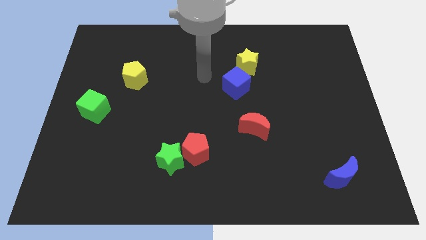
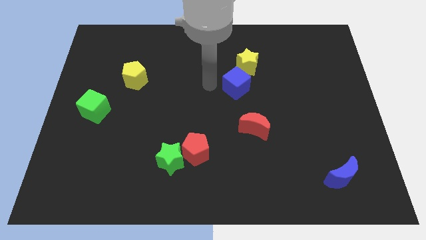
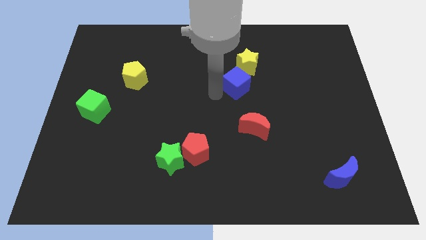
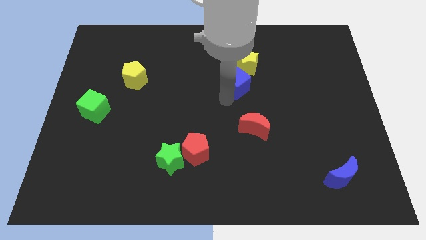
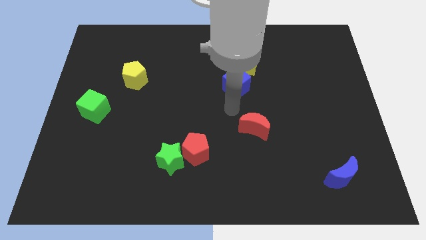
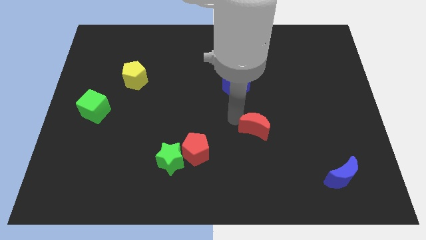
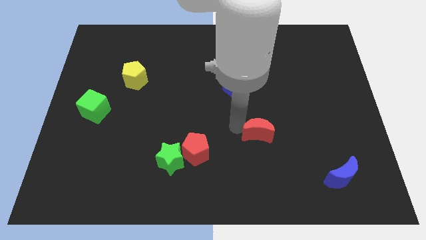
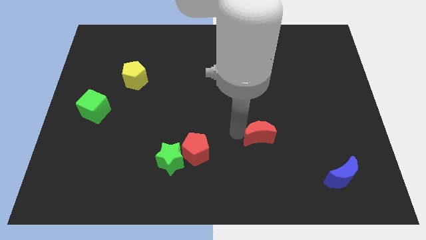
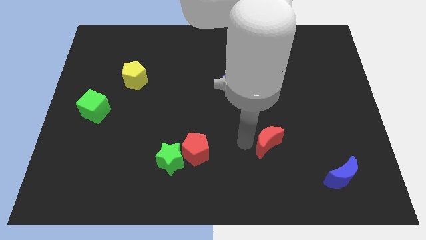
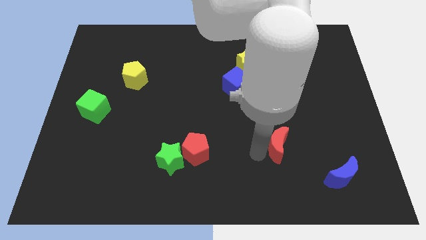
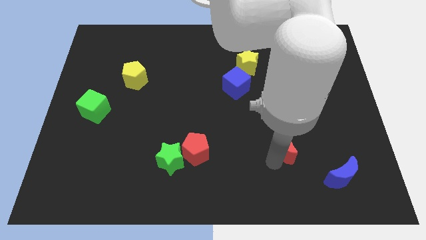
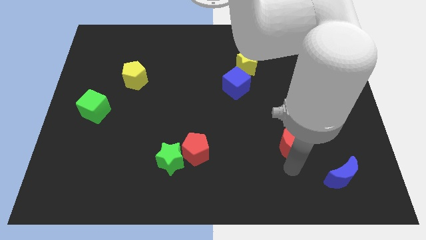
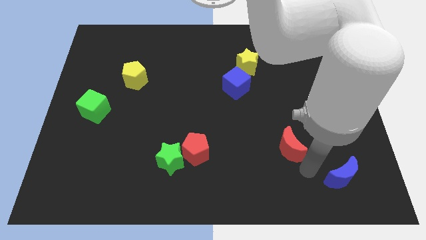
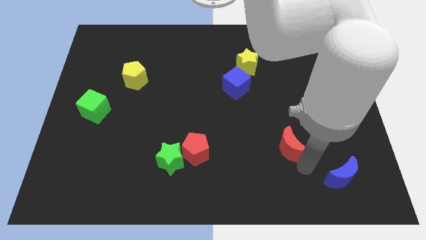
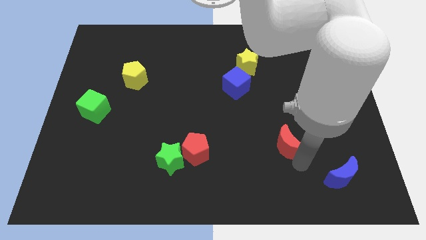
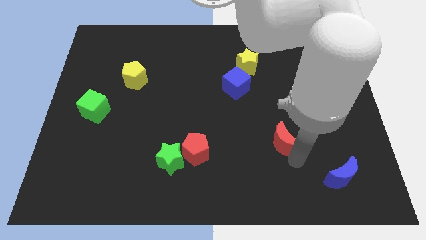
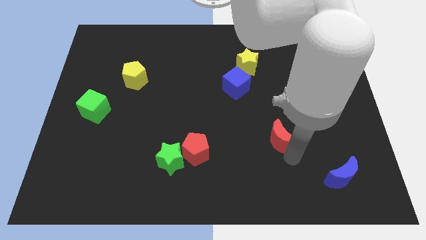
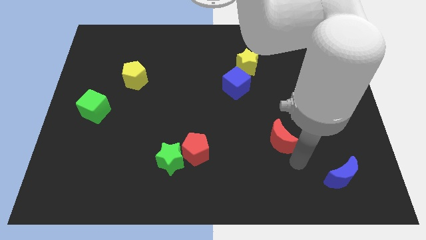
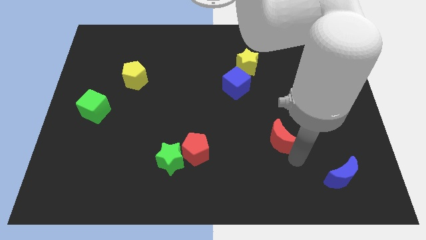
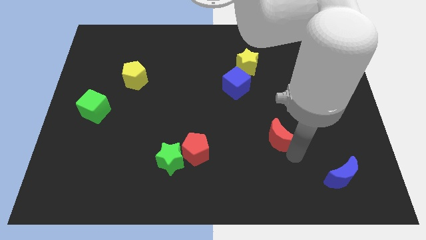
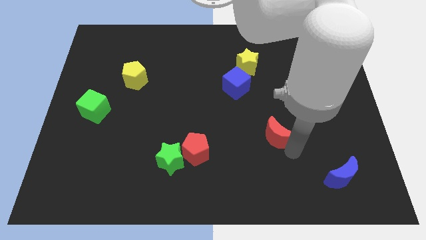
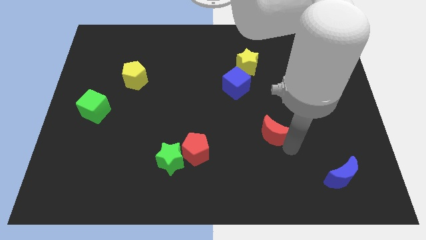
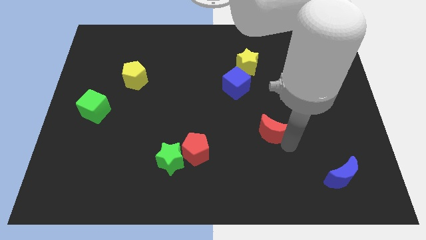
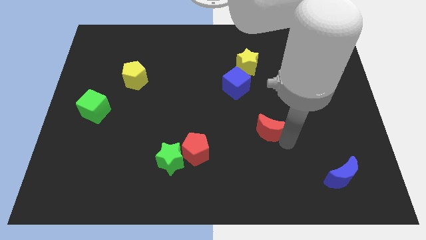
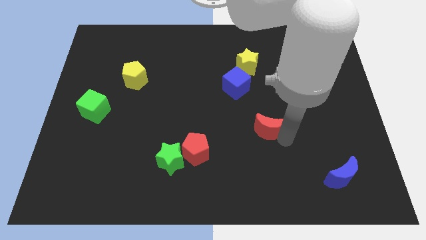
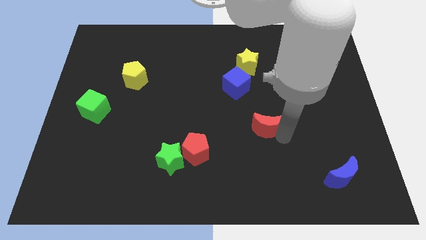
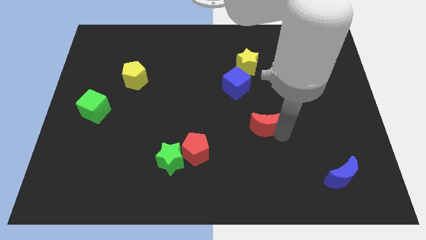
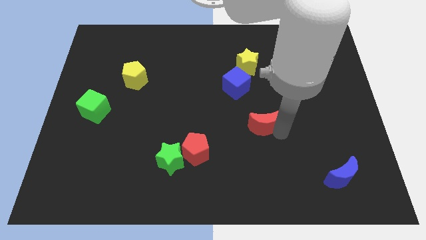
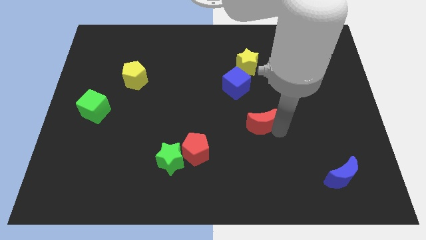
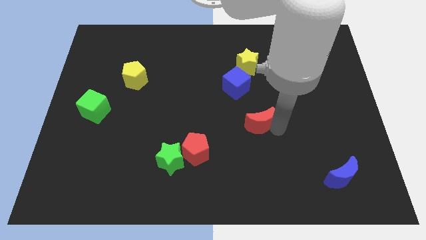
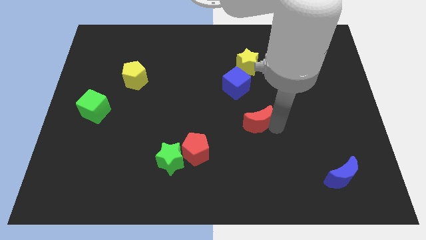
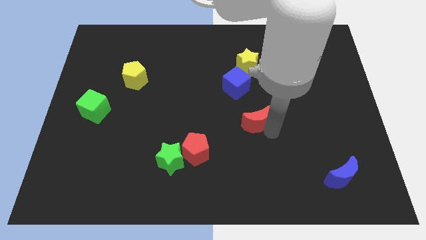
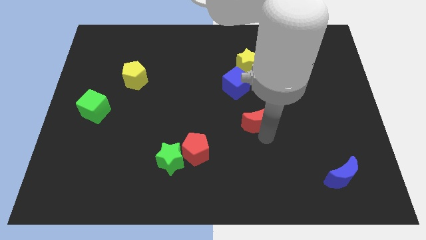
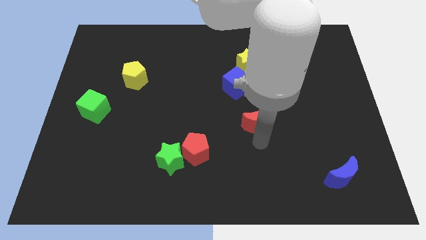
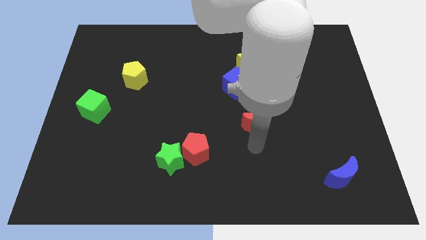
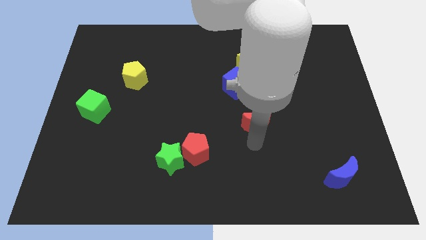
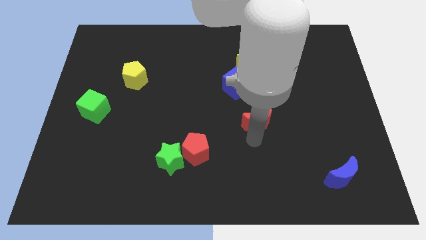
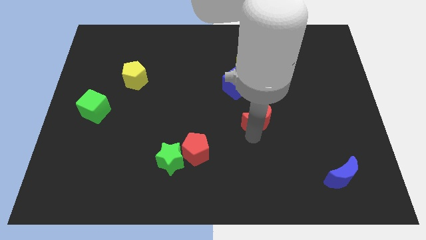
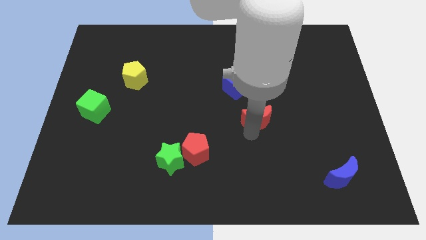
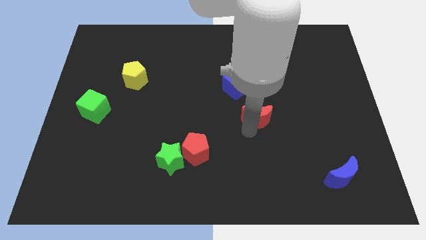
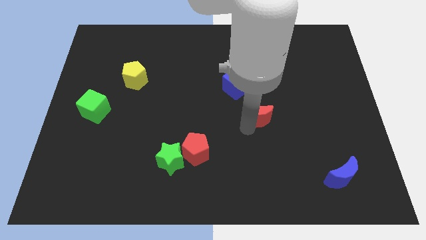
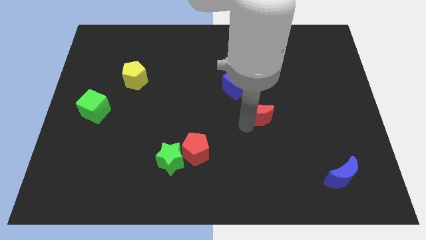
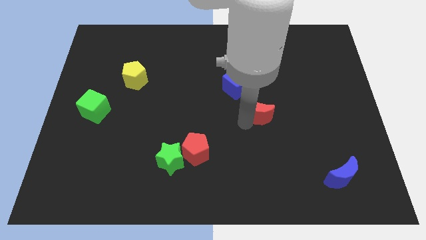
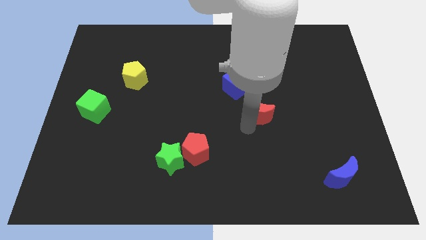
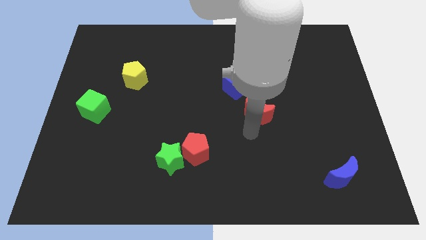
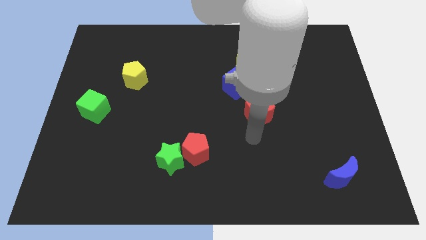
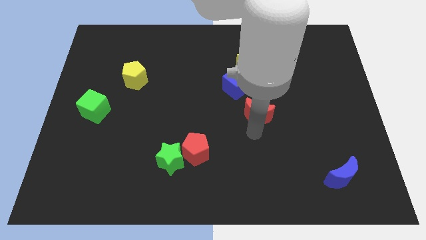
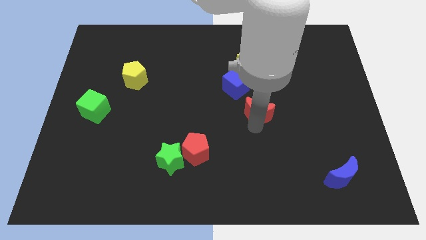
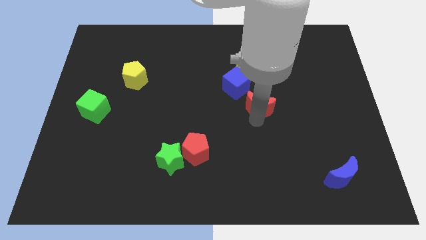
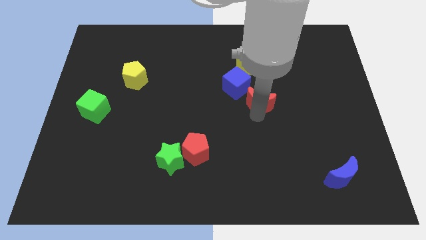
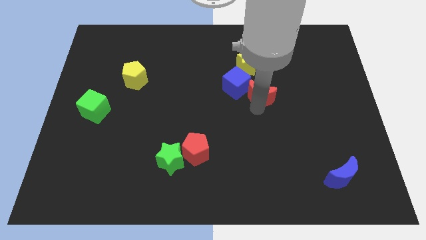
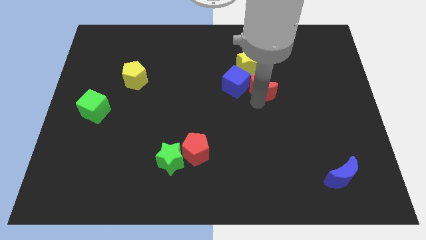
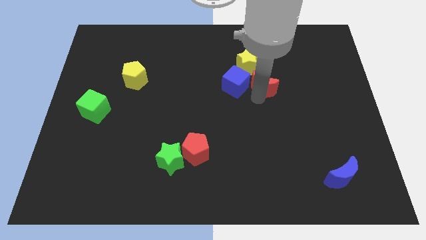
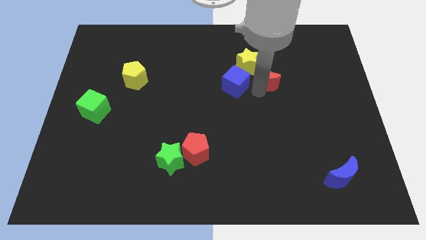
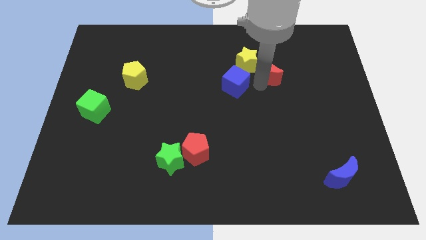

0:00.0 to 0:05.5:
push the red moon right of the yellow star
